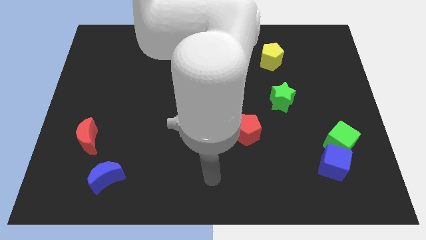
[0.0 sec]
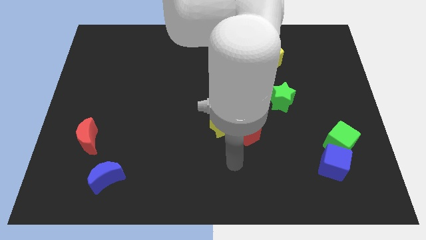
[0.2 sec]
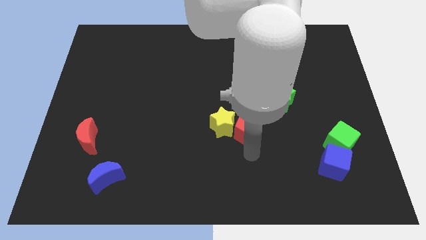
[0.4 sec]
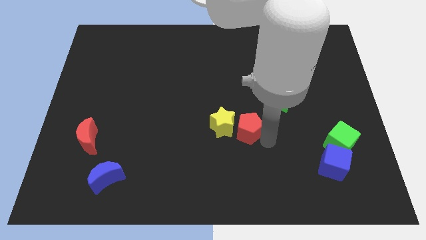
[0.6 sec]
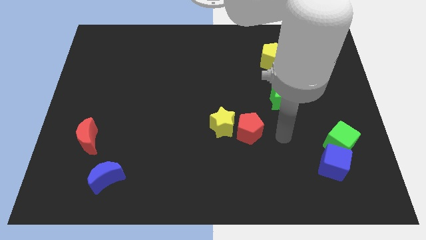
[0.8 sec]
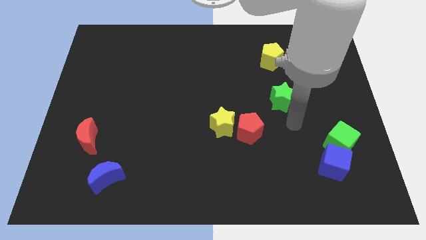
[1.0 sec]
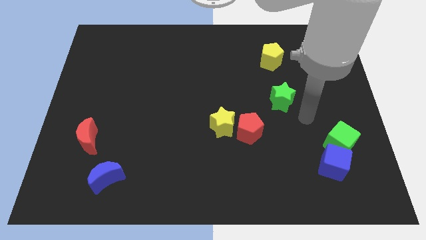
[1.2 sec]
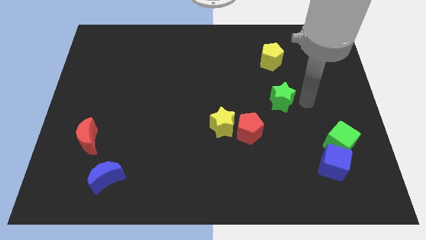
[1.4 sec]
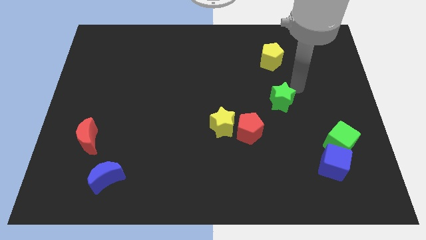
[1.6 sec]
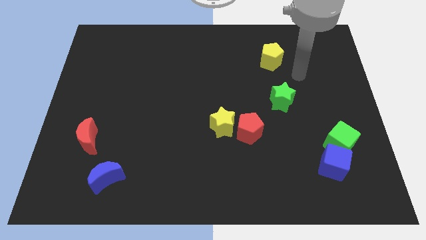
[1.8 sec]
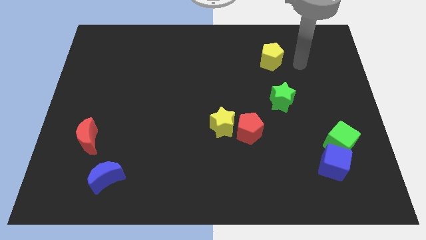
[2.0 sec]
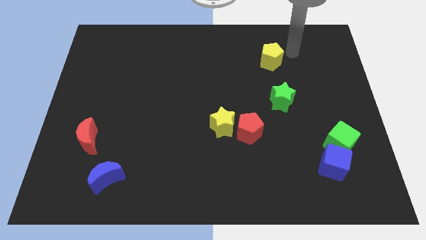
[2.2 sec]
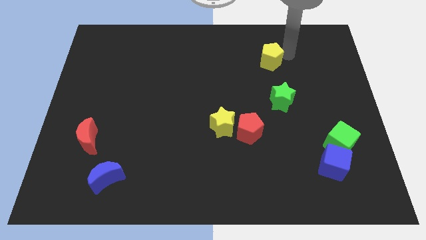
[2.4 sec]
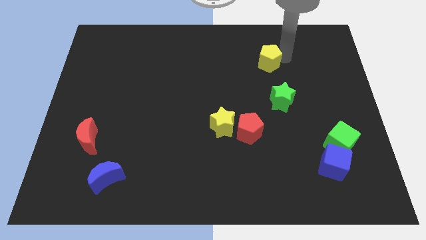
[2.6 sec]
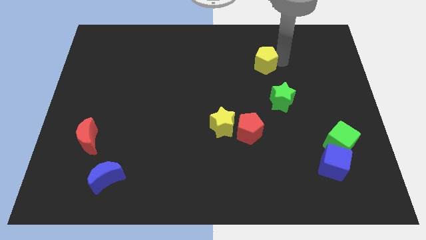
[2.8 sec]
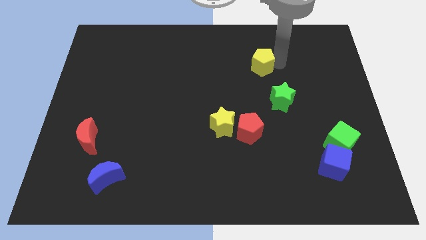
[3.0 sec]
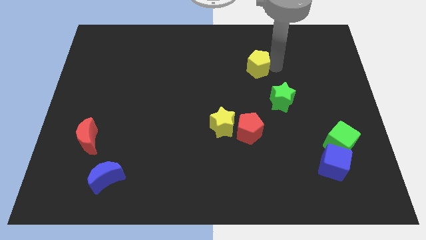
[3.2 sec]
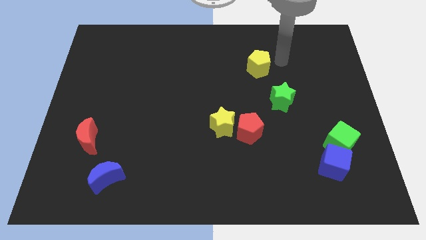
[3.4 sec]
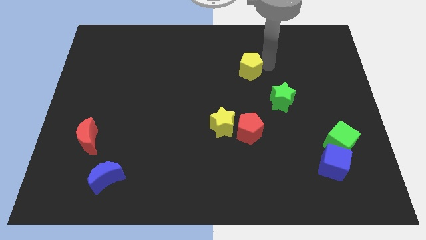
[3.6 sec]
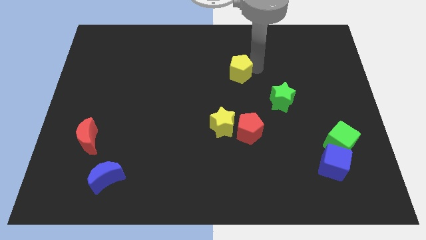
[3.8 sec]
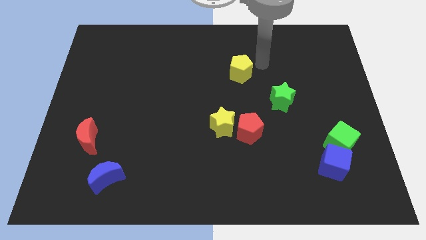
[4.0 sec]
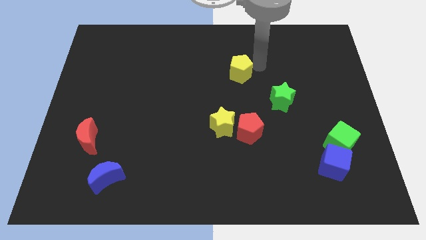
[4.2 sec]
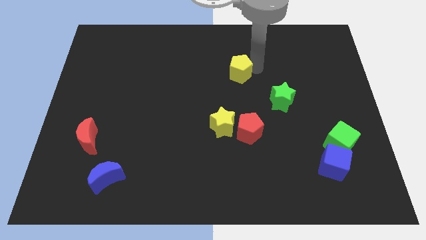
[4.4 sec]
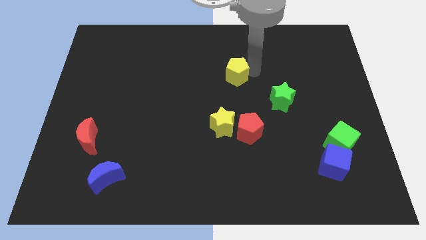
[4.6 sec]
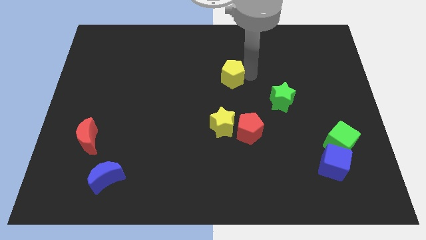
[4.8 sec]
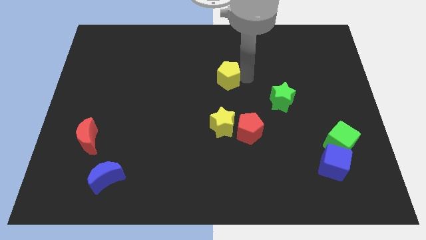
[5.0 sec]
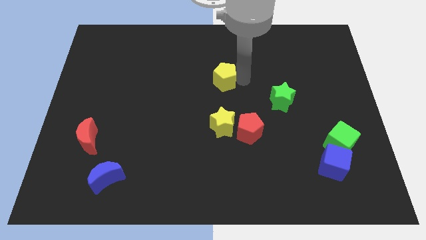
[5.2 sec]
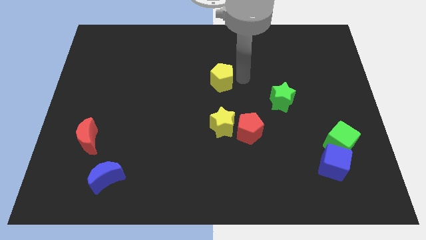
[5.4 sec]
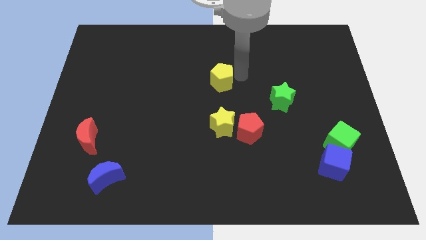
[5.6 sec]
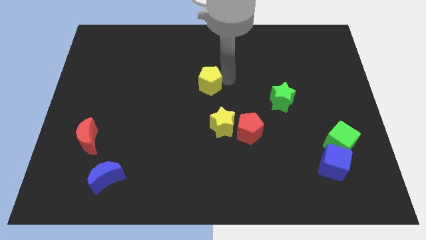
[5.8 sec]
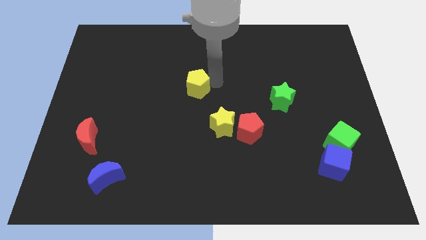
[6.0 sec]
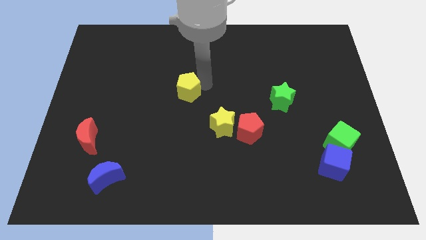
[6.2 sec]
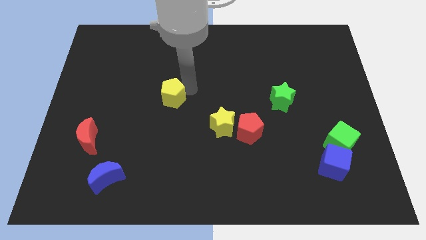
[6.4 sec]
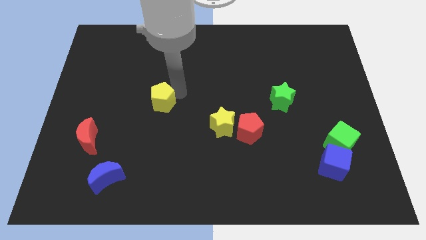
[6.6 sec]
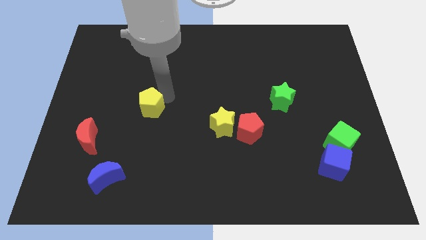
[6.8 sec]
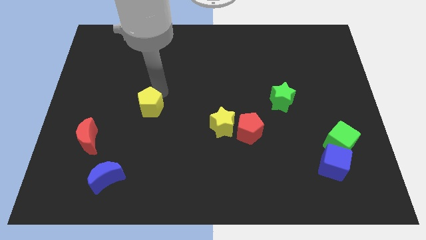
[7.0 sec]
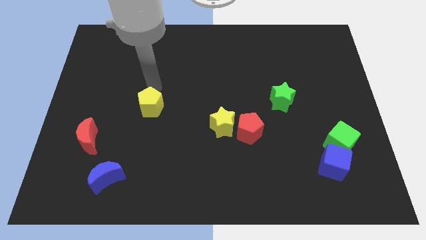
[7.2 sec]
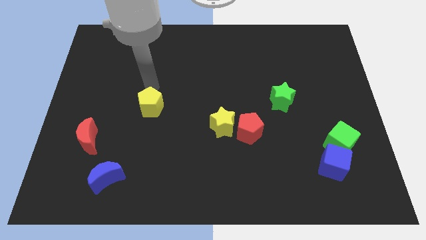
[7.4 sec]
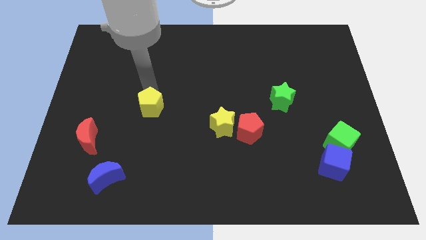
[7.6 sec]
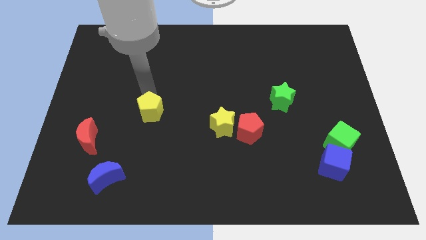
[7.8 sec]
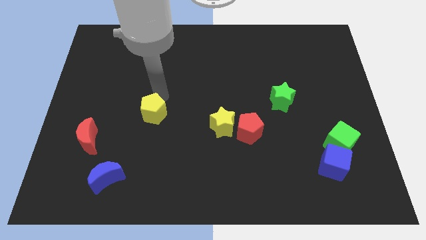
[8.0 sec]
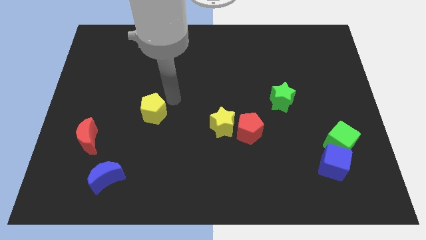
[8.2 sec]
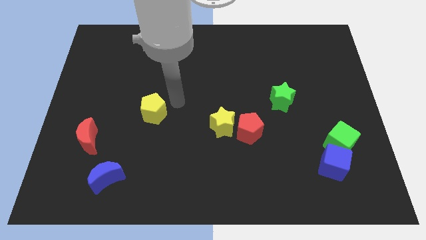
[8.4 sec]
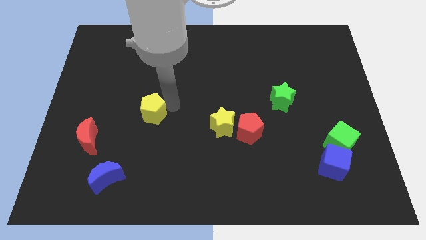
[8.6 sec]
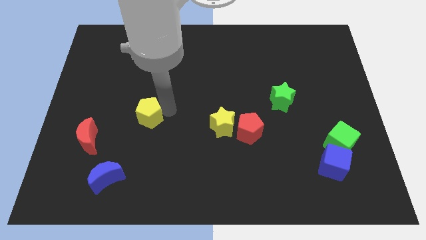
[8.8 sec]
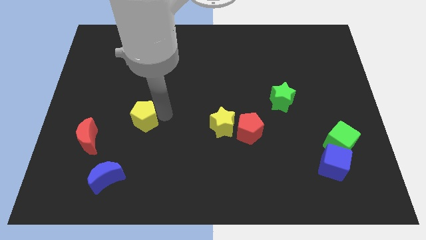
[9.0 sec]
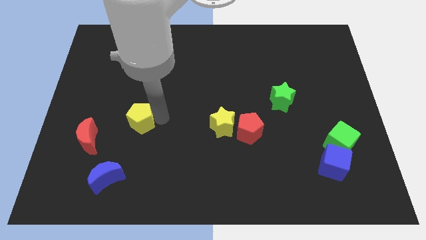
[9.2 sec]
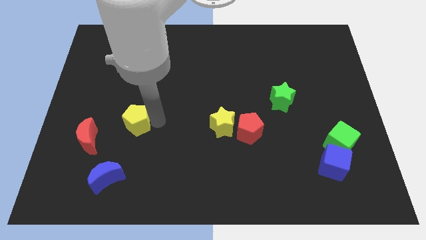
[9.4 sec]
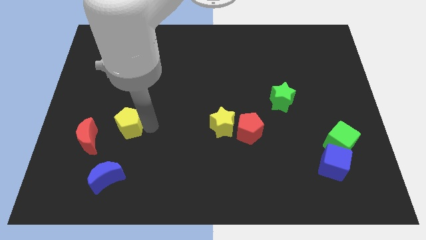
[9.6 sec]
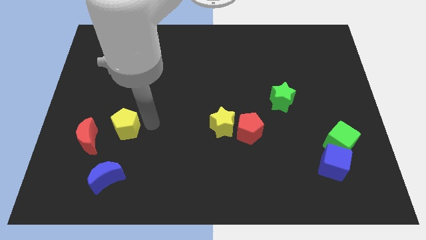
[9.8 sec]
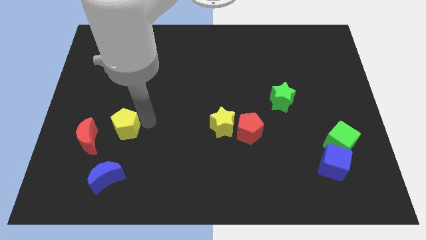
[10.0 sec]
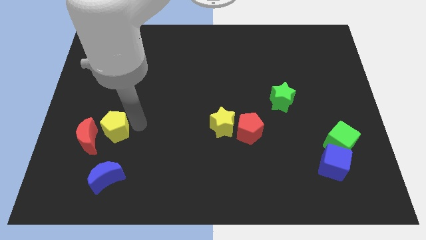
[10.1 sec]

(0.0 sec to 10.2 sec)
push the yellow pentagon close to the red moon

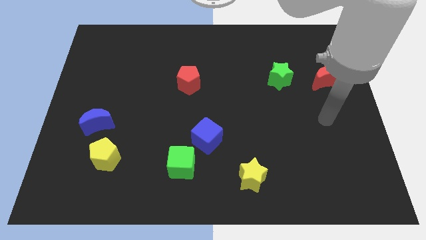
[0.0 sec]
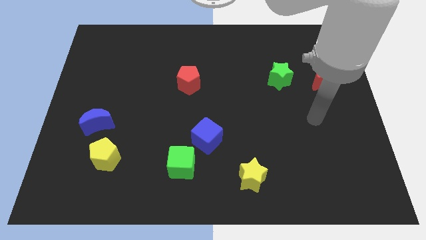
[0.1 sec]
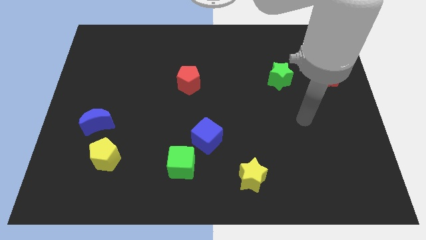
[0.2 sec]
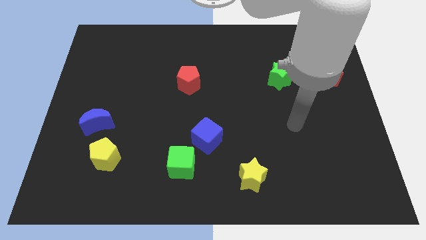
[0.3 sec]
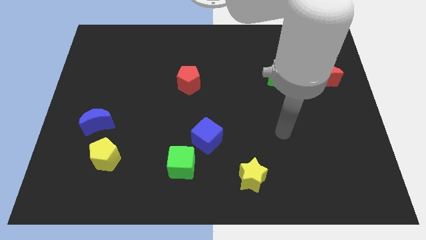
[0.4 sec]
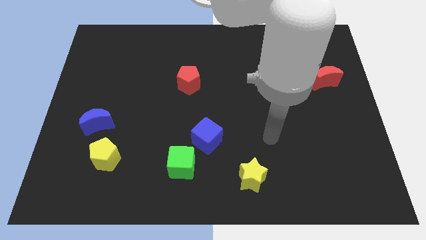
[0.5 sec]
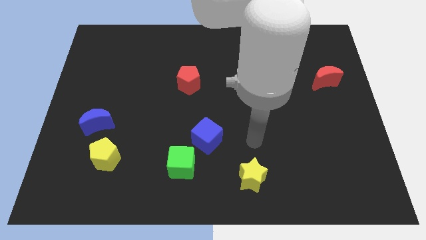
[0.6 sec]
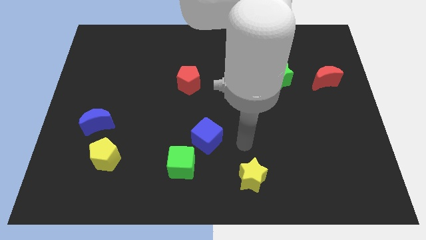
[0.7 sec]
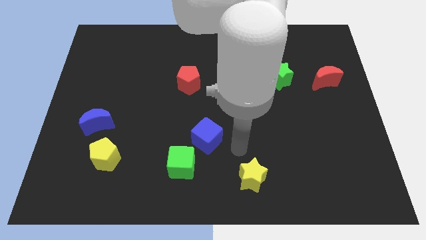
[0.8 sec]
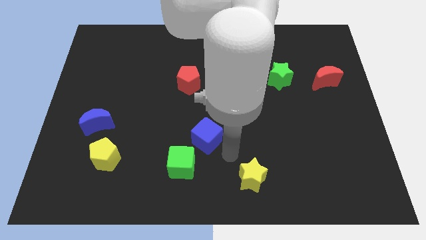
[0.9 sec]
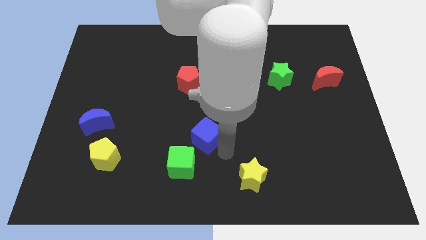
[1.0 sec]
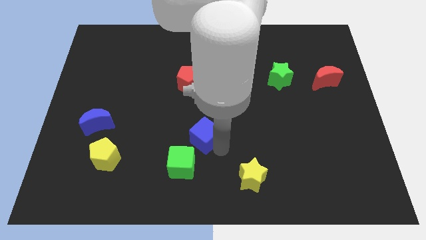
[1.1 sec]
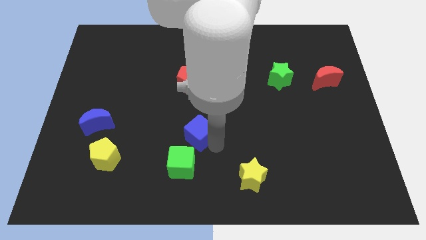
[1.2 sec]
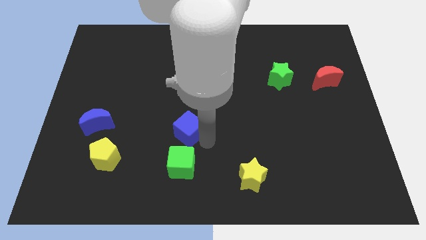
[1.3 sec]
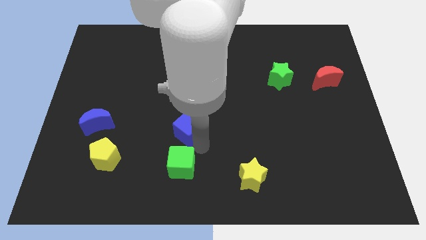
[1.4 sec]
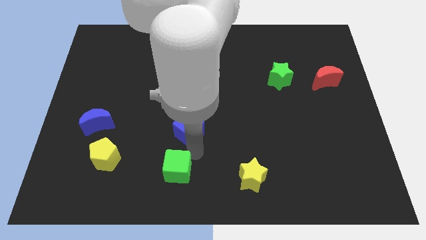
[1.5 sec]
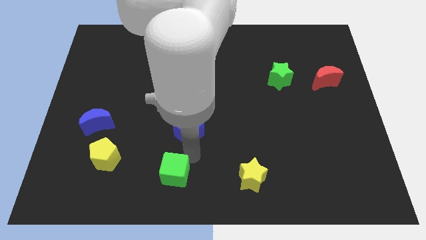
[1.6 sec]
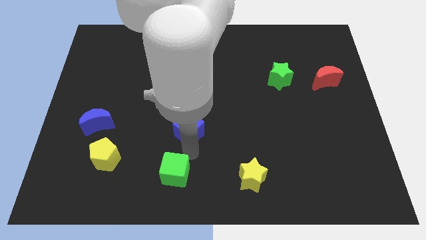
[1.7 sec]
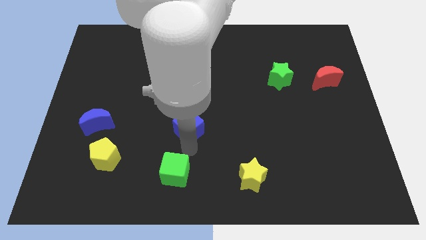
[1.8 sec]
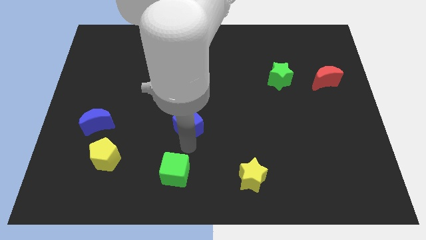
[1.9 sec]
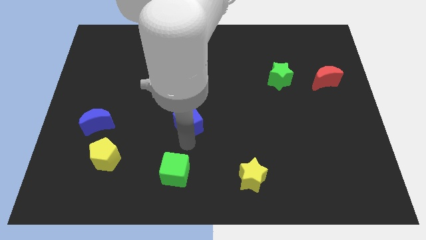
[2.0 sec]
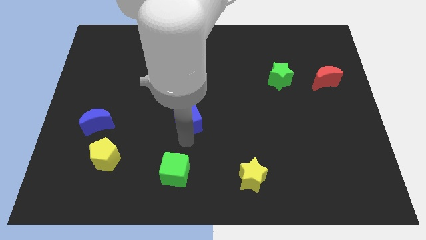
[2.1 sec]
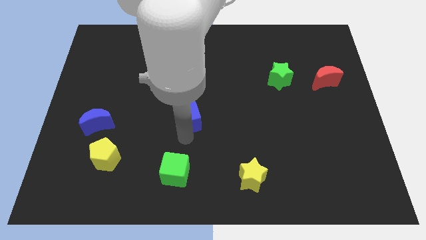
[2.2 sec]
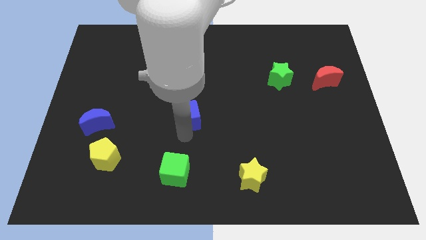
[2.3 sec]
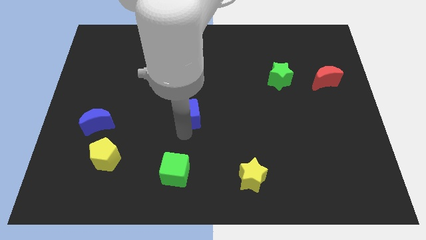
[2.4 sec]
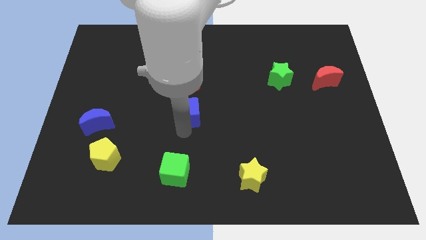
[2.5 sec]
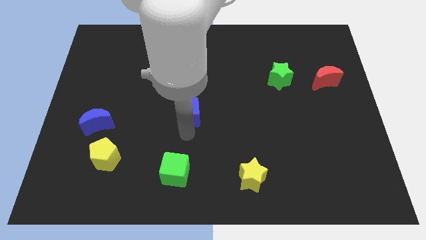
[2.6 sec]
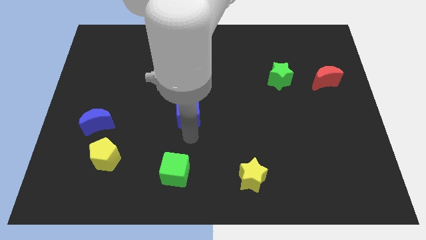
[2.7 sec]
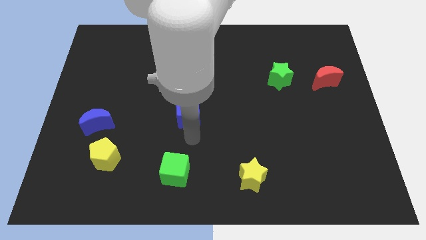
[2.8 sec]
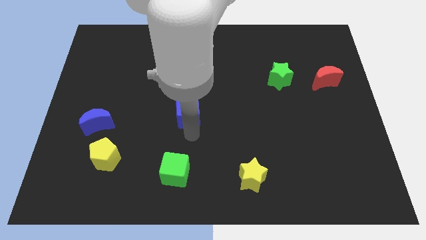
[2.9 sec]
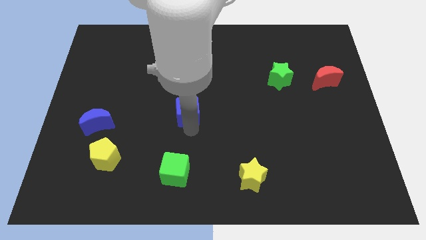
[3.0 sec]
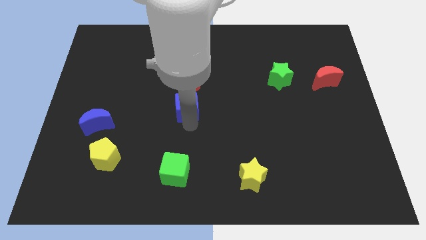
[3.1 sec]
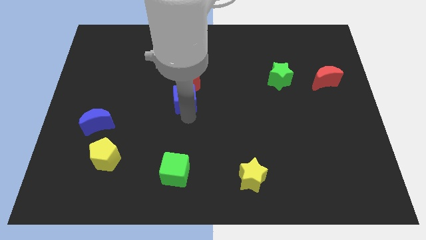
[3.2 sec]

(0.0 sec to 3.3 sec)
move the blue cube close to the red pentagon
